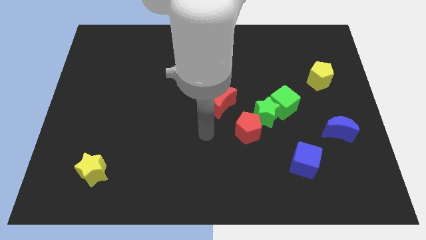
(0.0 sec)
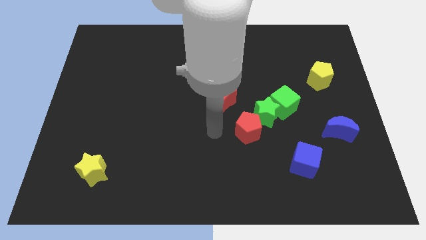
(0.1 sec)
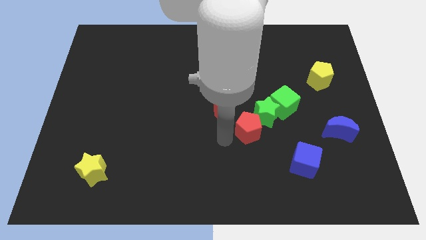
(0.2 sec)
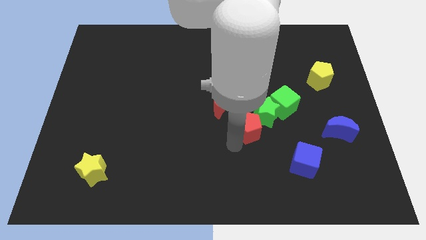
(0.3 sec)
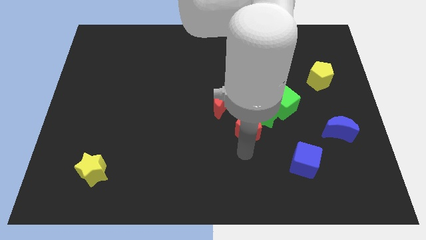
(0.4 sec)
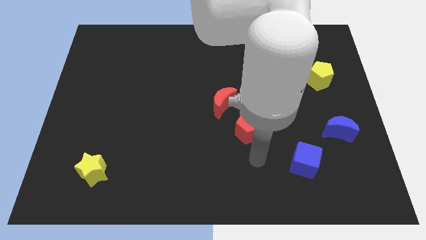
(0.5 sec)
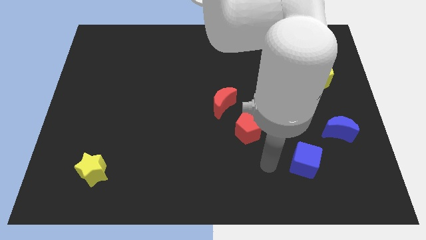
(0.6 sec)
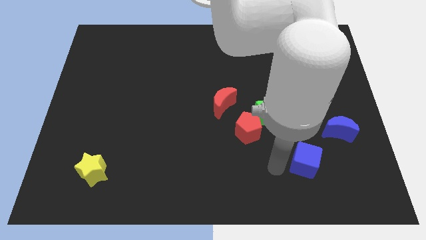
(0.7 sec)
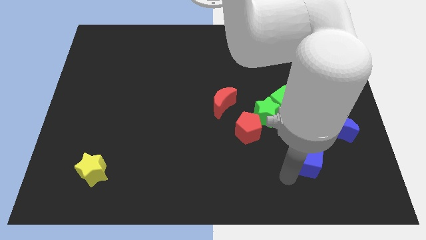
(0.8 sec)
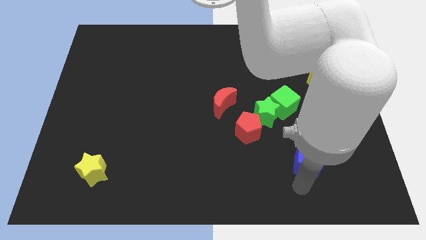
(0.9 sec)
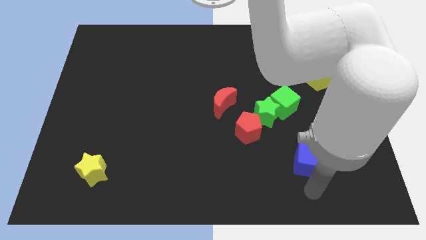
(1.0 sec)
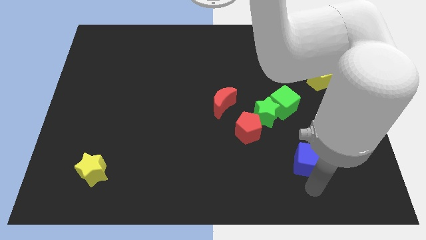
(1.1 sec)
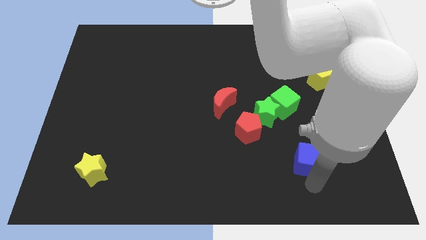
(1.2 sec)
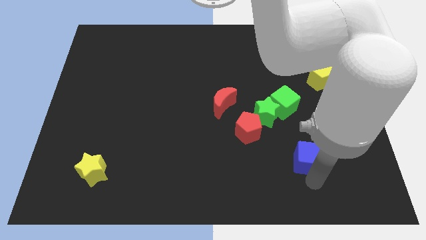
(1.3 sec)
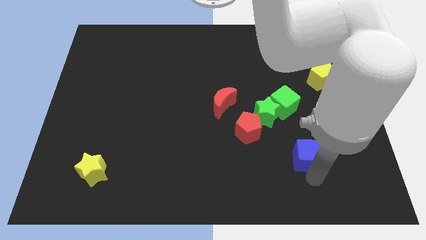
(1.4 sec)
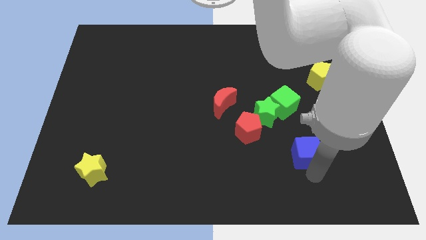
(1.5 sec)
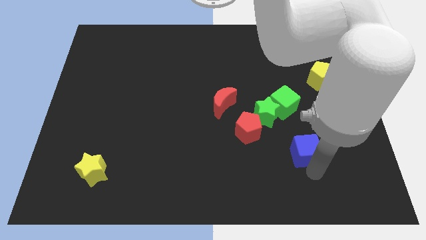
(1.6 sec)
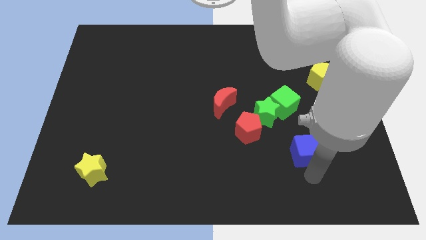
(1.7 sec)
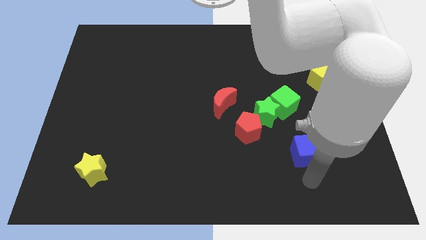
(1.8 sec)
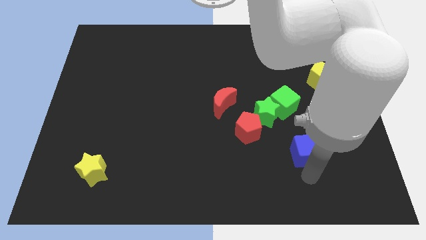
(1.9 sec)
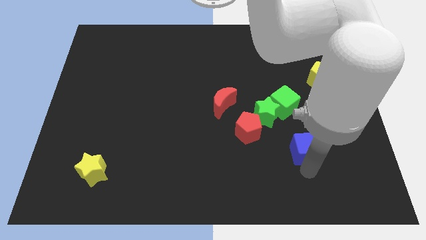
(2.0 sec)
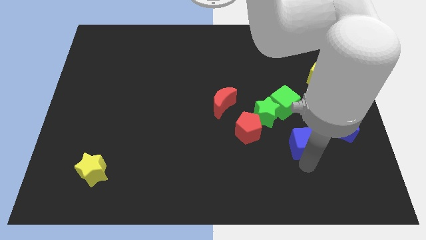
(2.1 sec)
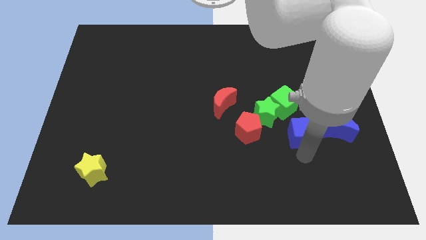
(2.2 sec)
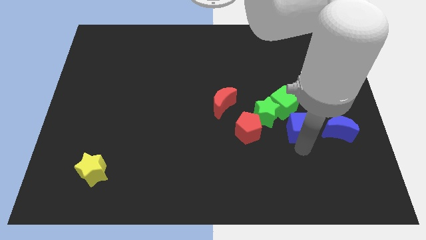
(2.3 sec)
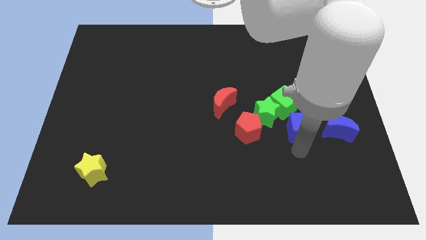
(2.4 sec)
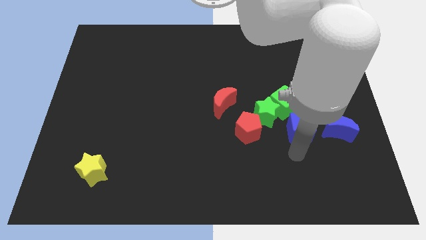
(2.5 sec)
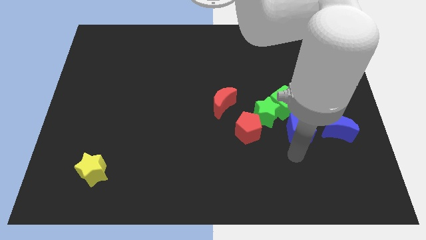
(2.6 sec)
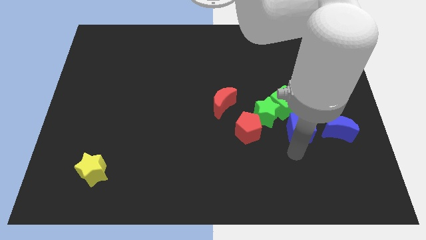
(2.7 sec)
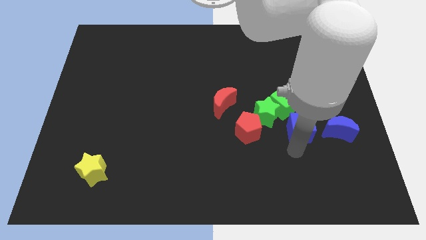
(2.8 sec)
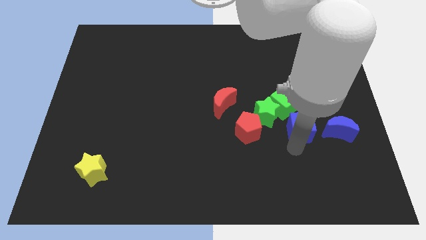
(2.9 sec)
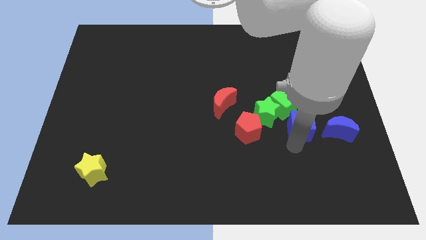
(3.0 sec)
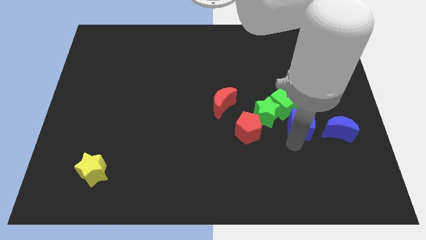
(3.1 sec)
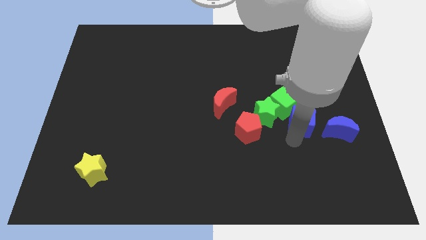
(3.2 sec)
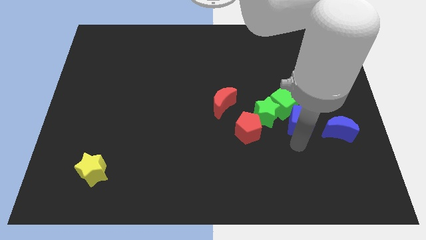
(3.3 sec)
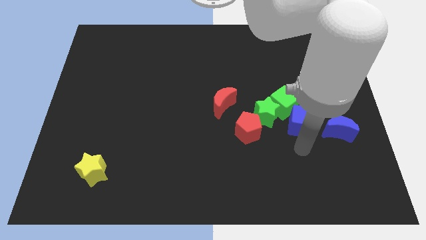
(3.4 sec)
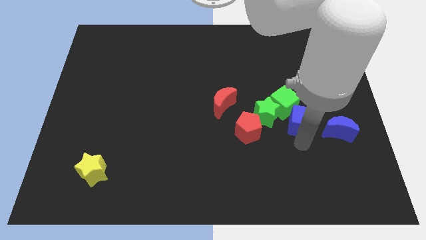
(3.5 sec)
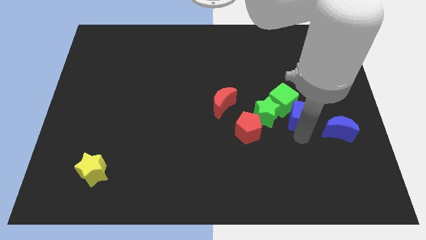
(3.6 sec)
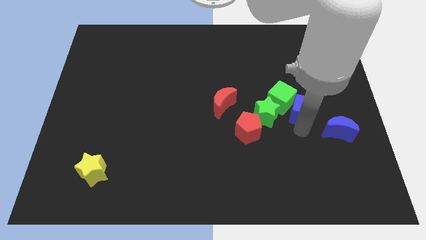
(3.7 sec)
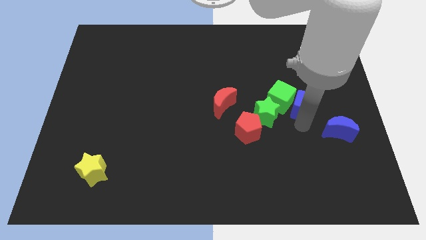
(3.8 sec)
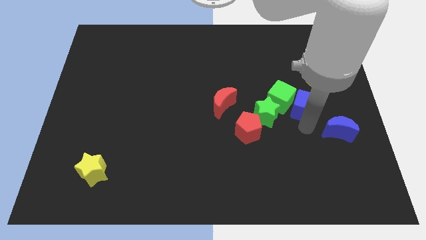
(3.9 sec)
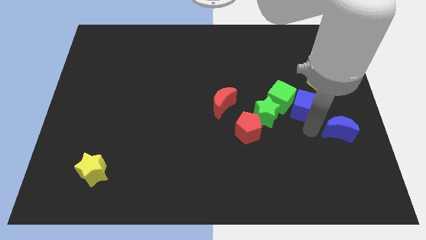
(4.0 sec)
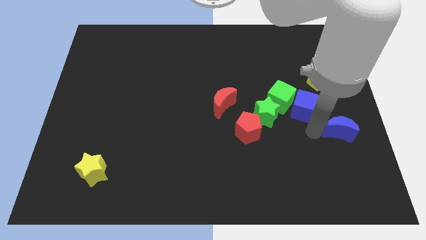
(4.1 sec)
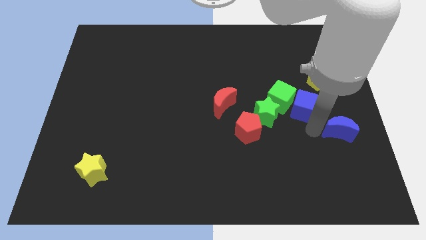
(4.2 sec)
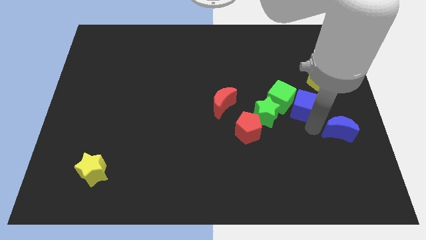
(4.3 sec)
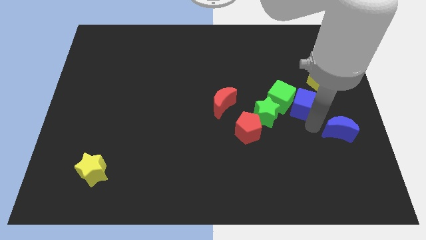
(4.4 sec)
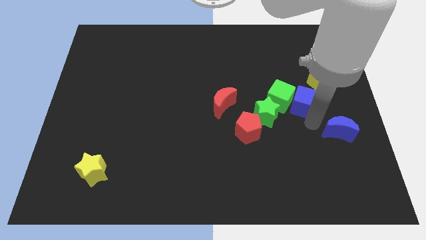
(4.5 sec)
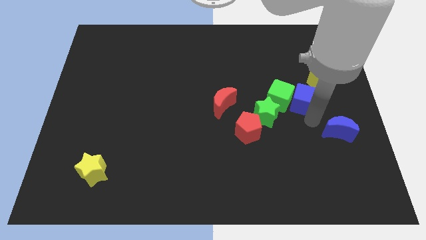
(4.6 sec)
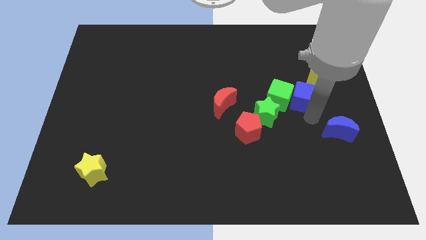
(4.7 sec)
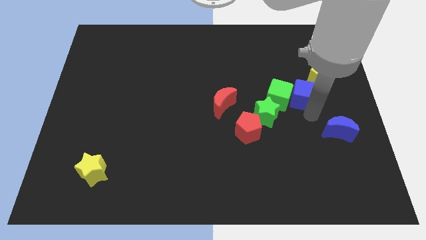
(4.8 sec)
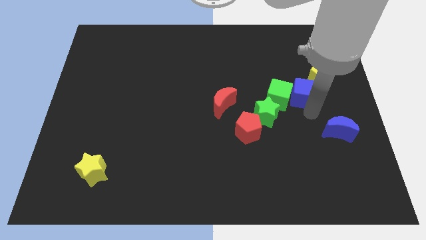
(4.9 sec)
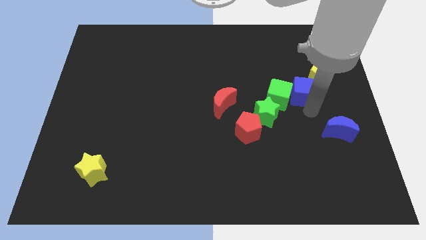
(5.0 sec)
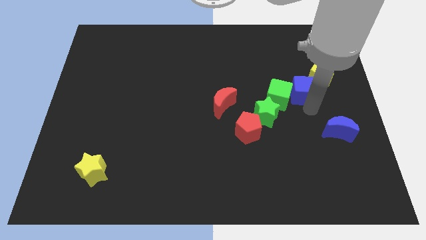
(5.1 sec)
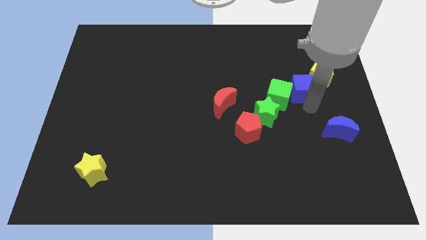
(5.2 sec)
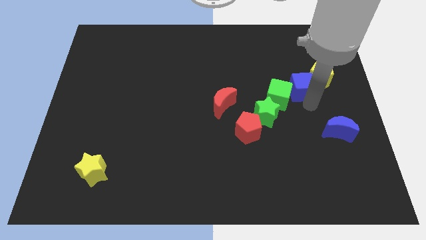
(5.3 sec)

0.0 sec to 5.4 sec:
move the blue cube up

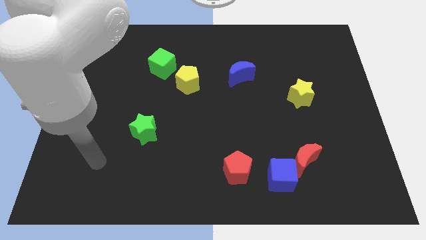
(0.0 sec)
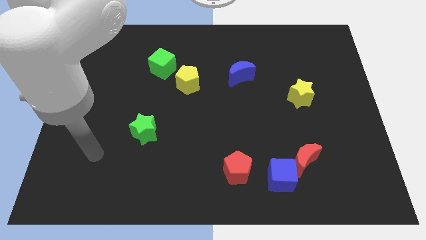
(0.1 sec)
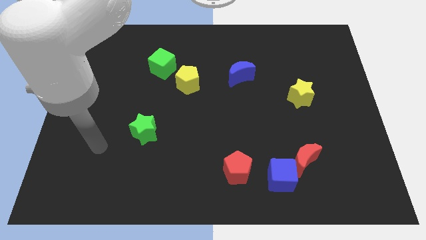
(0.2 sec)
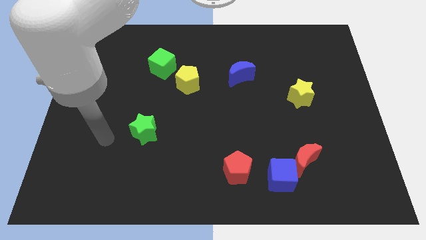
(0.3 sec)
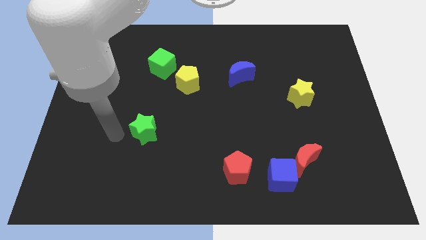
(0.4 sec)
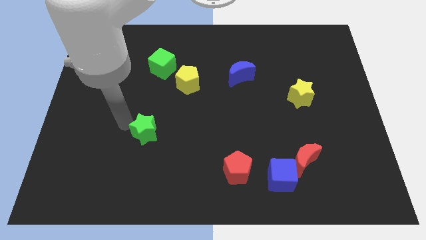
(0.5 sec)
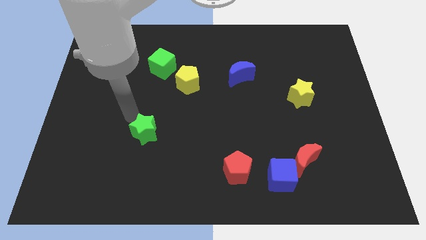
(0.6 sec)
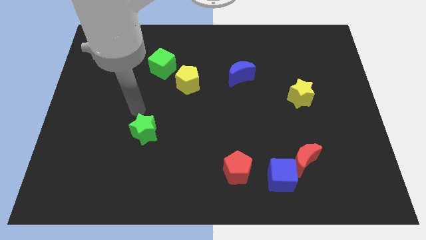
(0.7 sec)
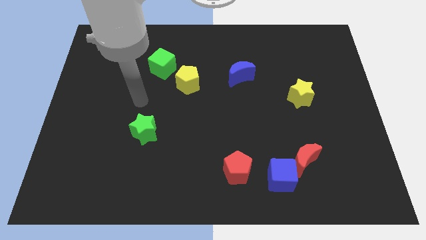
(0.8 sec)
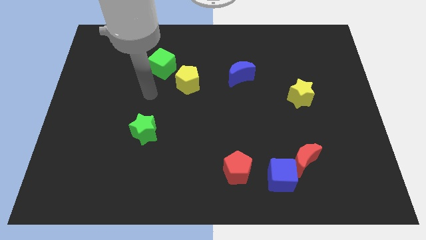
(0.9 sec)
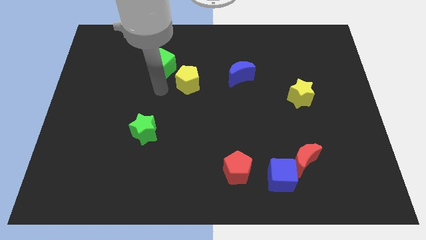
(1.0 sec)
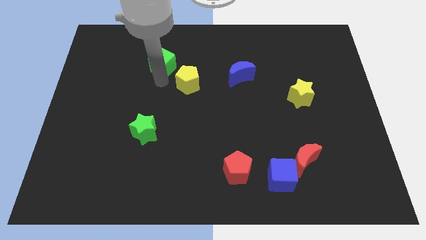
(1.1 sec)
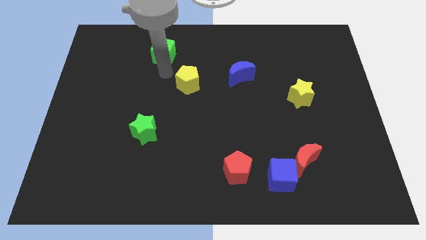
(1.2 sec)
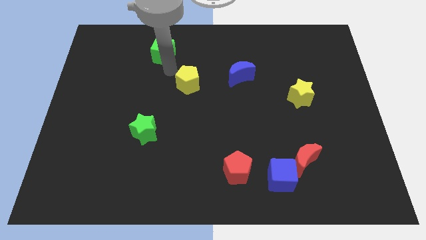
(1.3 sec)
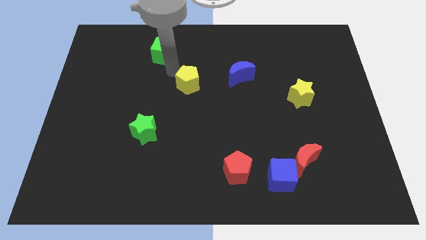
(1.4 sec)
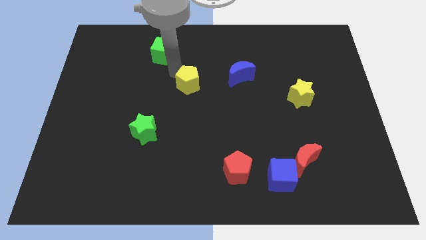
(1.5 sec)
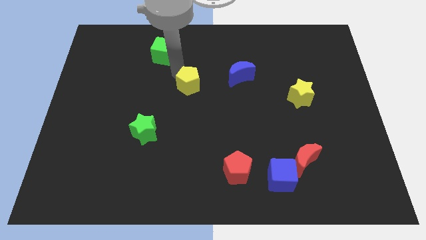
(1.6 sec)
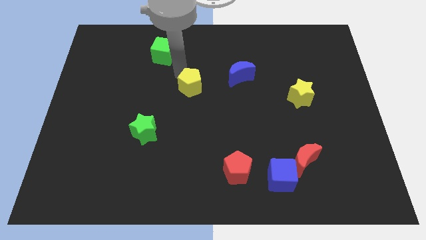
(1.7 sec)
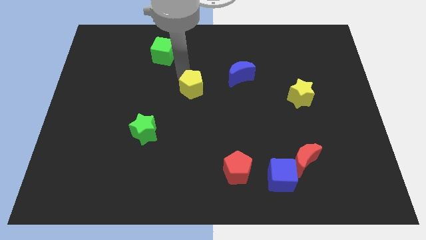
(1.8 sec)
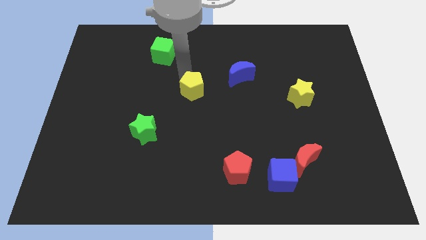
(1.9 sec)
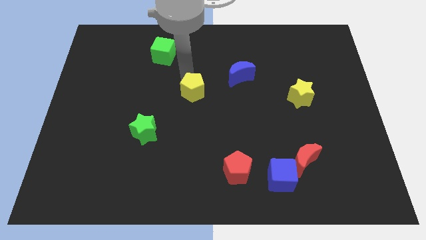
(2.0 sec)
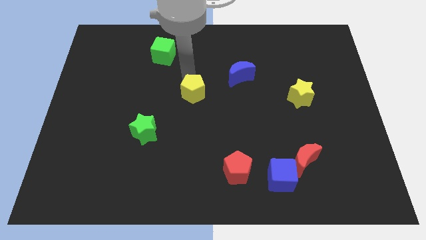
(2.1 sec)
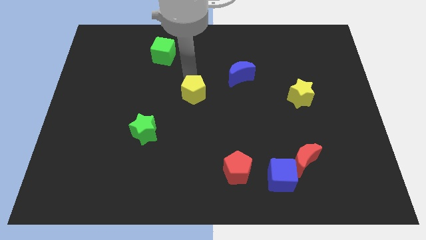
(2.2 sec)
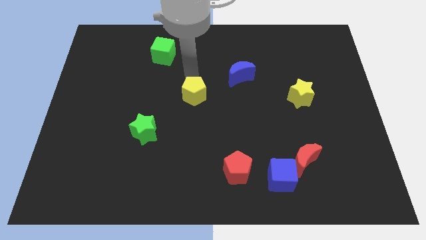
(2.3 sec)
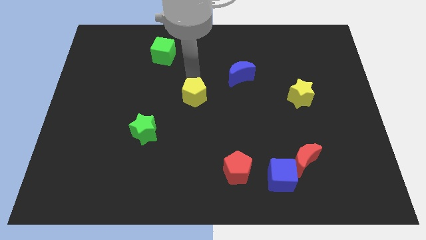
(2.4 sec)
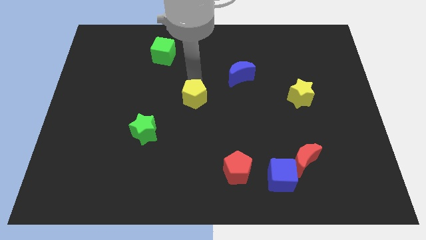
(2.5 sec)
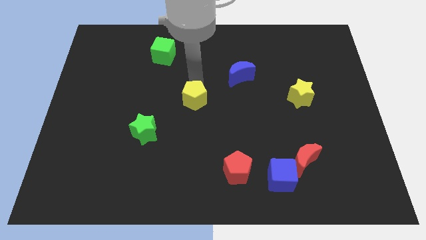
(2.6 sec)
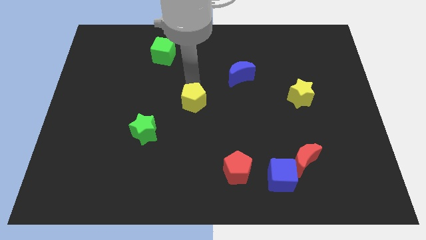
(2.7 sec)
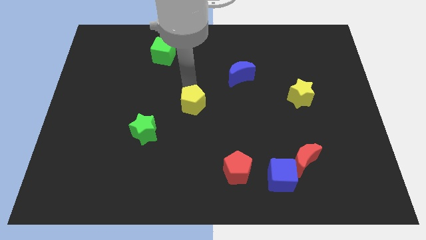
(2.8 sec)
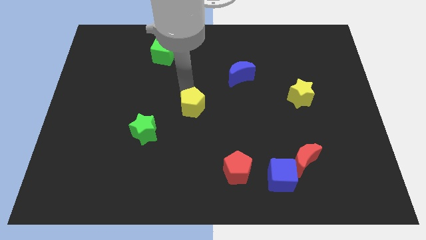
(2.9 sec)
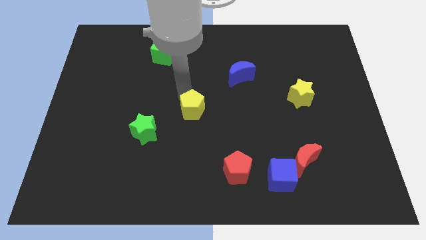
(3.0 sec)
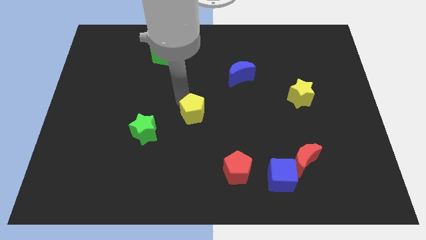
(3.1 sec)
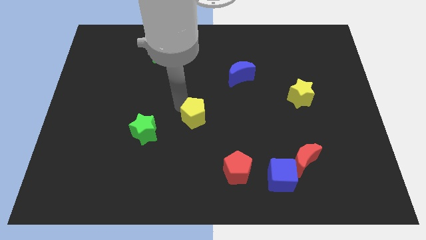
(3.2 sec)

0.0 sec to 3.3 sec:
push the yellow pentagon somewhat diagonally downwards and right
